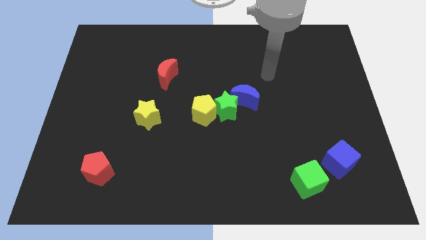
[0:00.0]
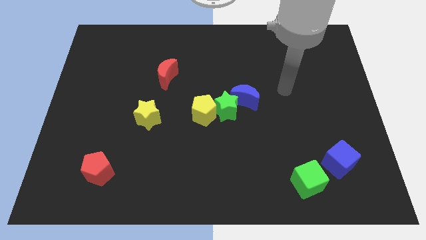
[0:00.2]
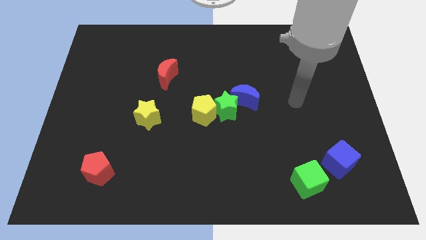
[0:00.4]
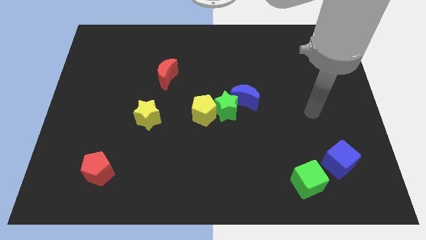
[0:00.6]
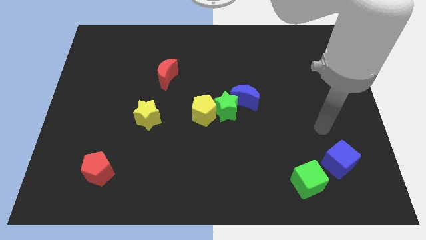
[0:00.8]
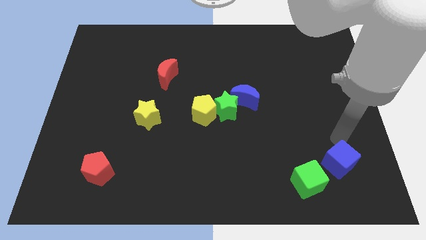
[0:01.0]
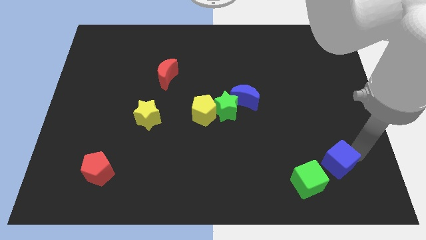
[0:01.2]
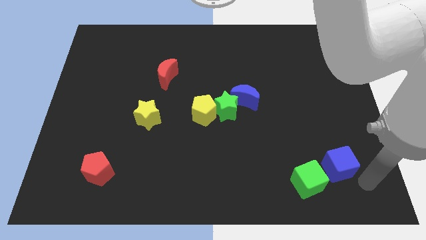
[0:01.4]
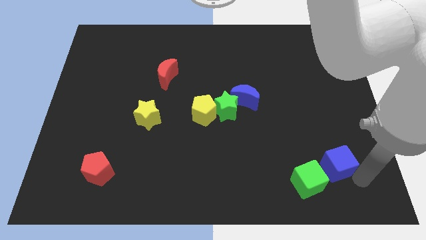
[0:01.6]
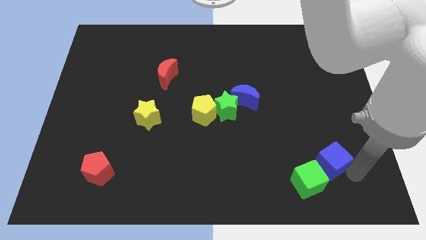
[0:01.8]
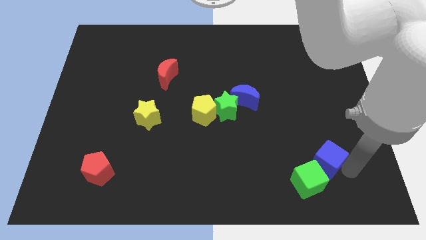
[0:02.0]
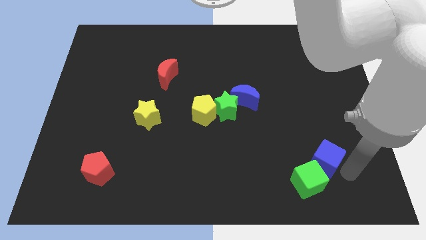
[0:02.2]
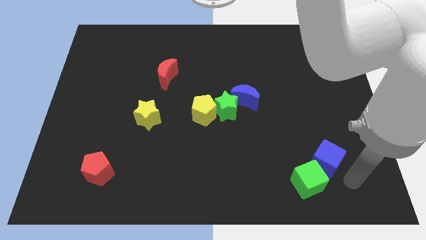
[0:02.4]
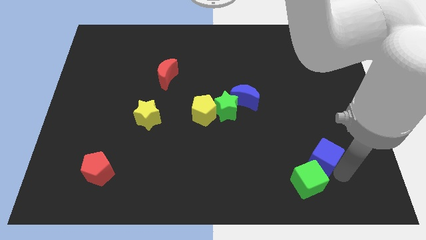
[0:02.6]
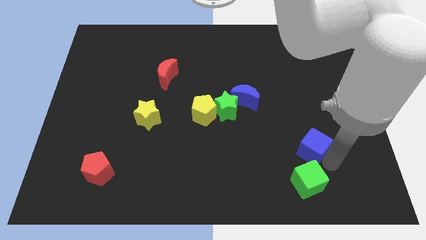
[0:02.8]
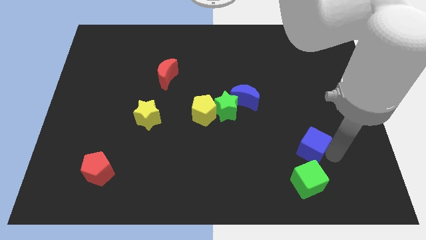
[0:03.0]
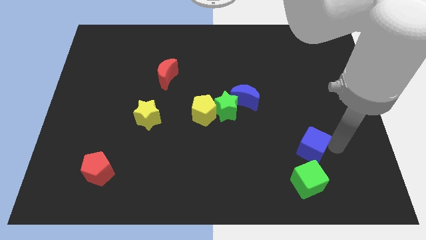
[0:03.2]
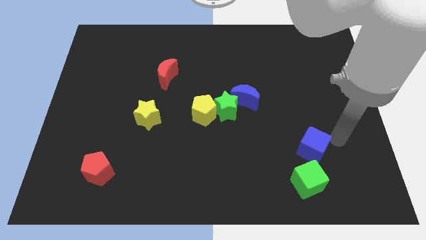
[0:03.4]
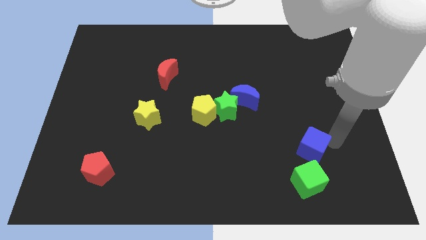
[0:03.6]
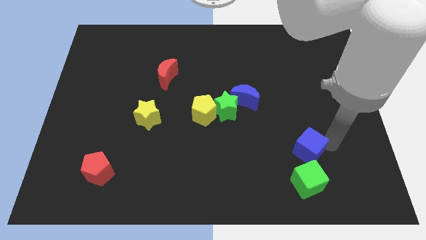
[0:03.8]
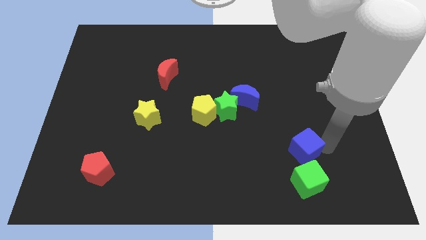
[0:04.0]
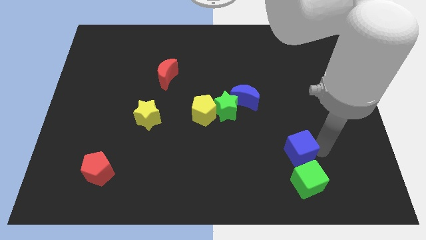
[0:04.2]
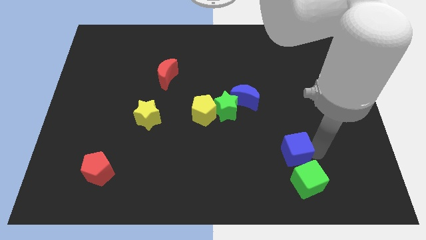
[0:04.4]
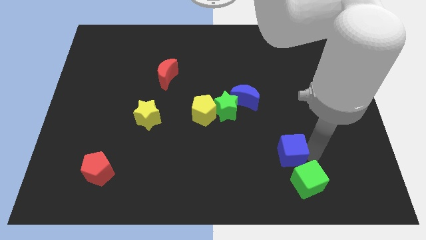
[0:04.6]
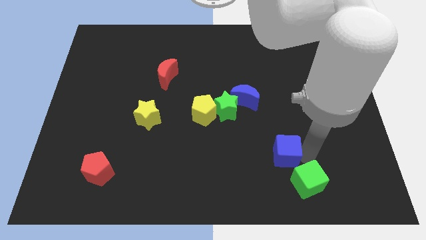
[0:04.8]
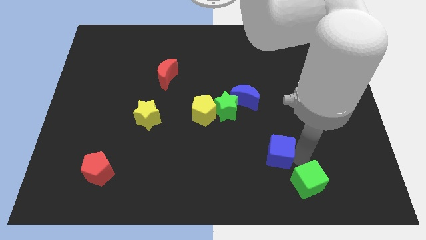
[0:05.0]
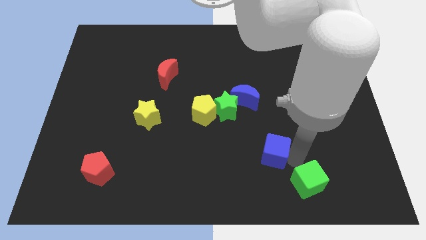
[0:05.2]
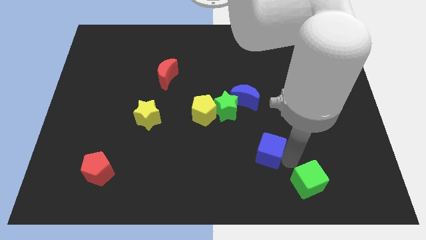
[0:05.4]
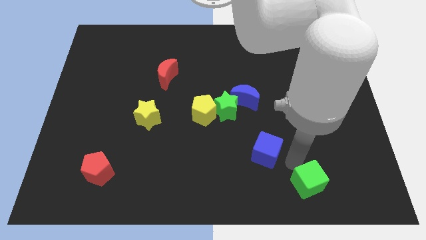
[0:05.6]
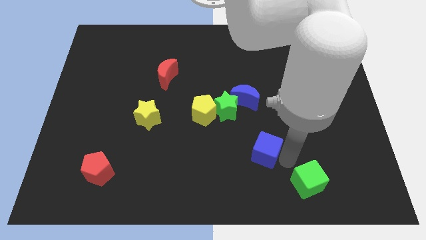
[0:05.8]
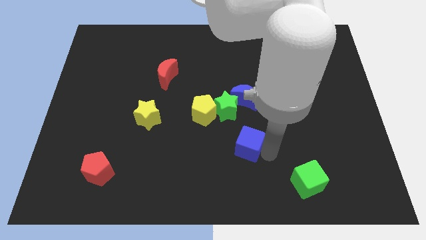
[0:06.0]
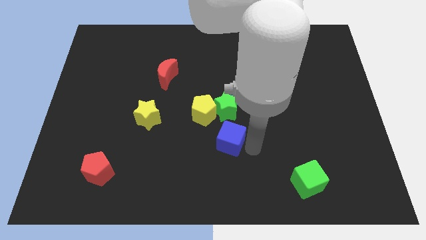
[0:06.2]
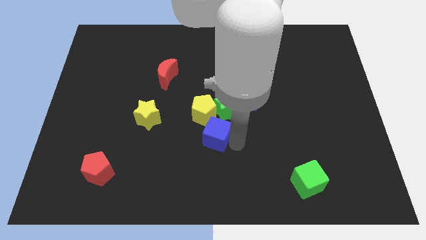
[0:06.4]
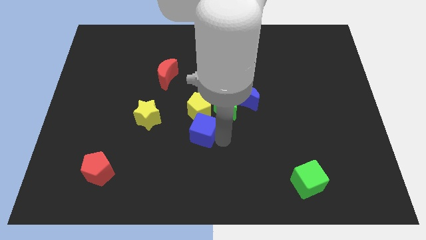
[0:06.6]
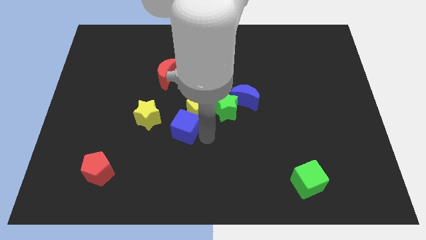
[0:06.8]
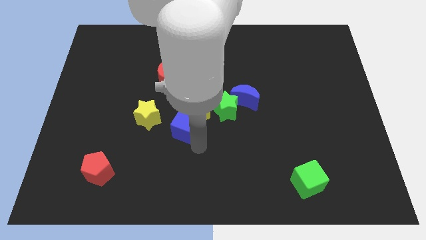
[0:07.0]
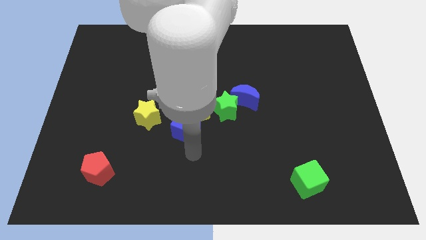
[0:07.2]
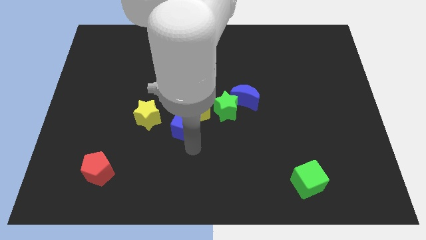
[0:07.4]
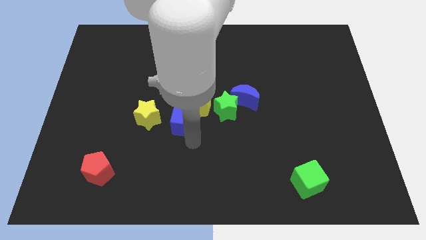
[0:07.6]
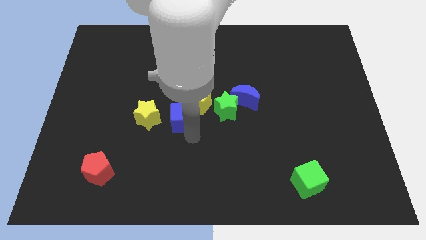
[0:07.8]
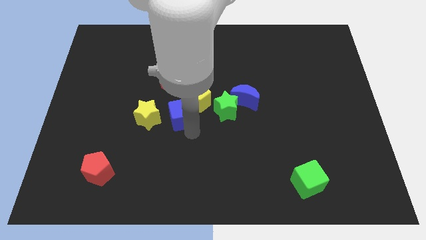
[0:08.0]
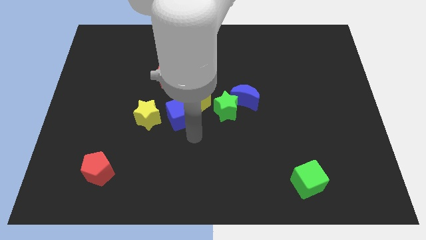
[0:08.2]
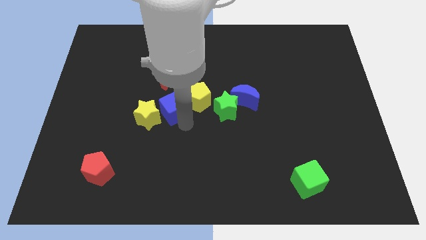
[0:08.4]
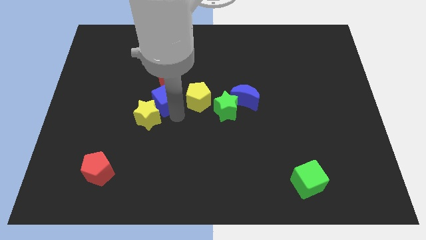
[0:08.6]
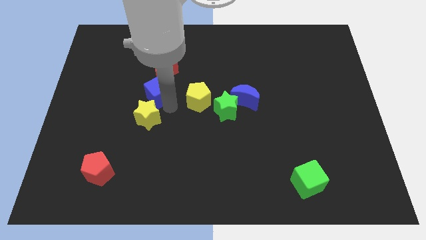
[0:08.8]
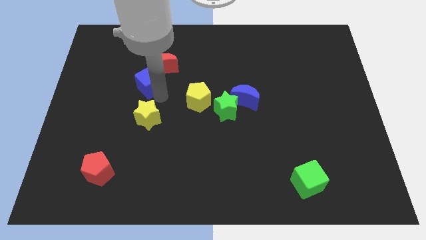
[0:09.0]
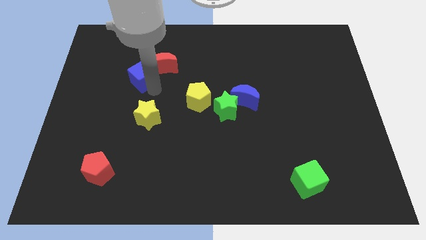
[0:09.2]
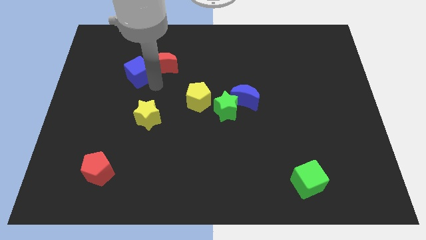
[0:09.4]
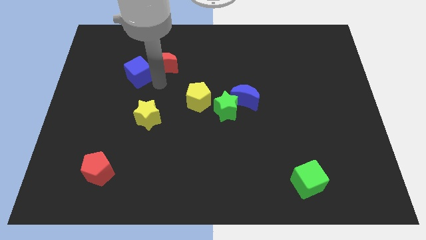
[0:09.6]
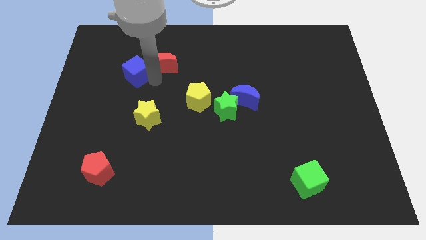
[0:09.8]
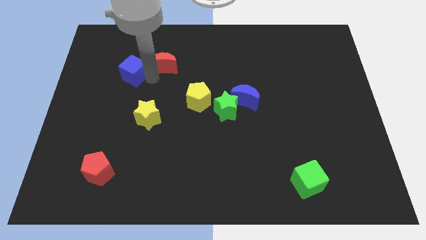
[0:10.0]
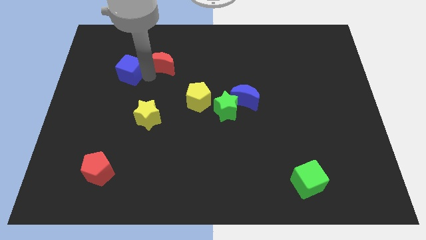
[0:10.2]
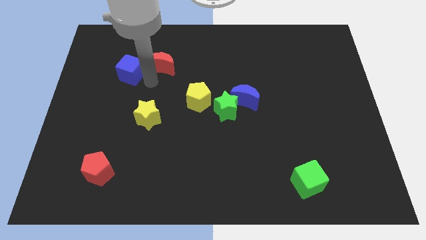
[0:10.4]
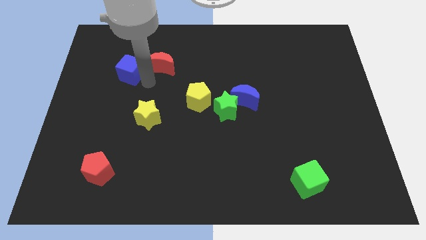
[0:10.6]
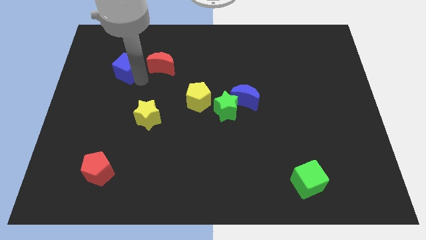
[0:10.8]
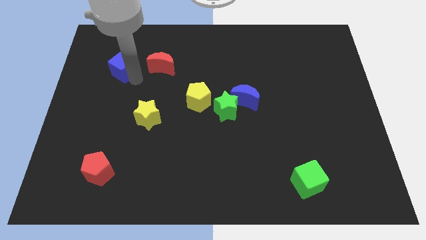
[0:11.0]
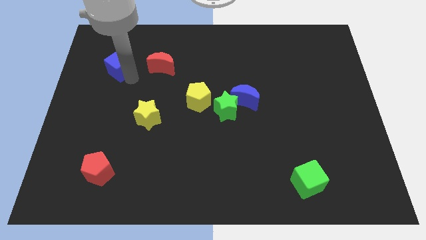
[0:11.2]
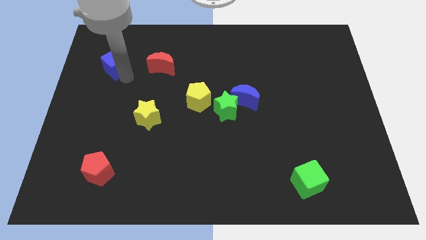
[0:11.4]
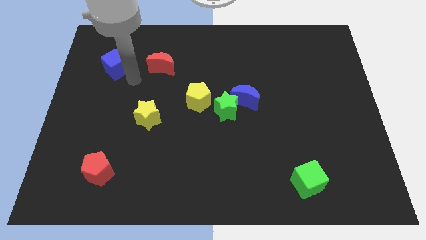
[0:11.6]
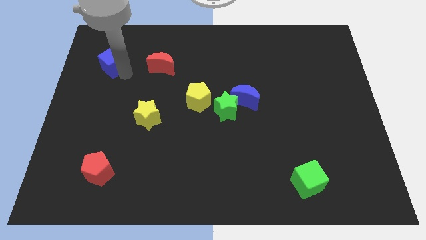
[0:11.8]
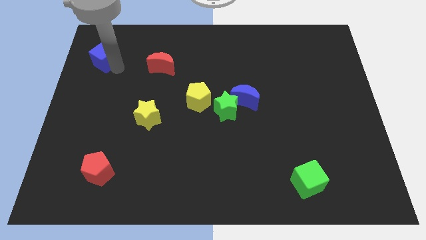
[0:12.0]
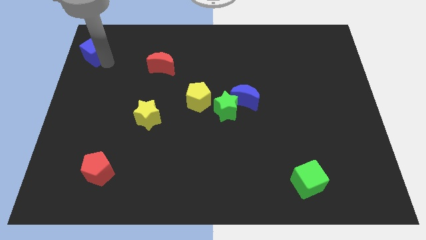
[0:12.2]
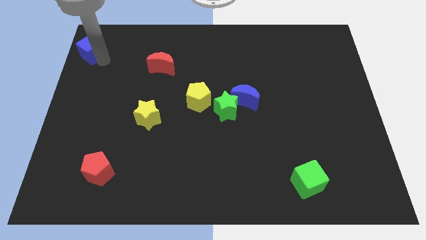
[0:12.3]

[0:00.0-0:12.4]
slide the blue cube to the upper left corner

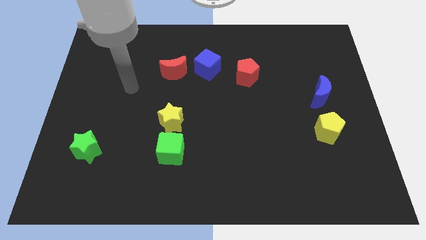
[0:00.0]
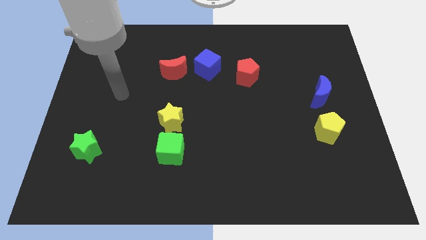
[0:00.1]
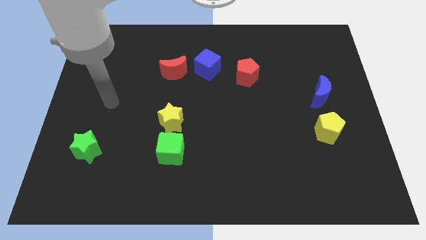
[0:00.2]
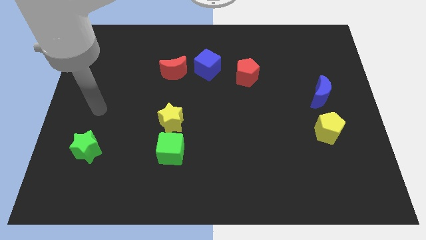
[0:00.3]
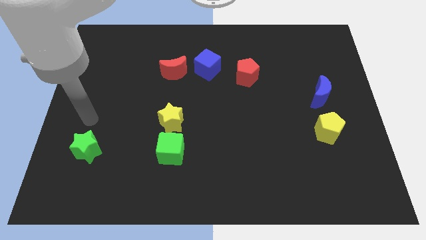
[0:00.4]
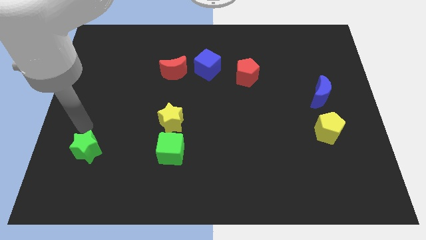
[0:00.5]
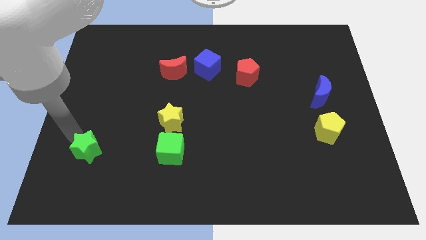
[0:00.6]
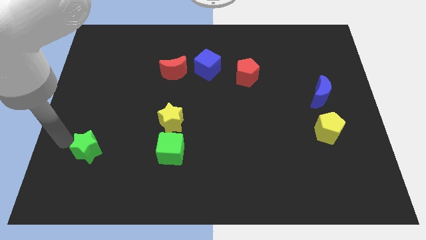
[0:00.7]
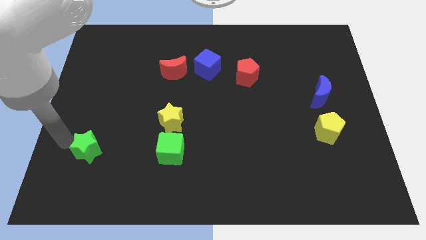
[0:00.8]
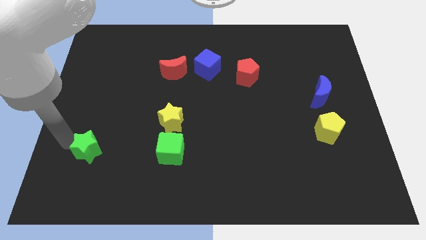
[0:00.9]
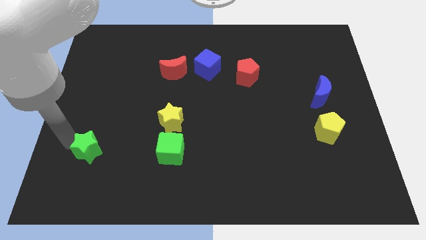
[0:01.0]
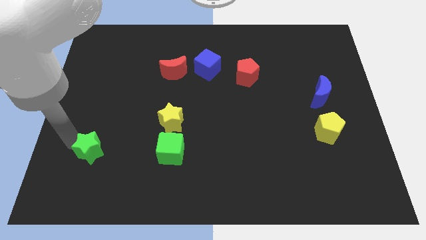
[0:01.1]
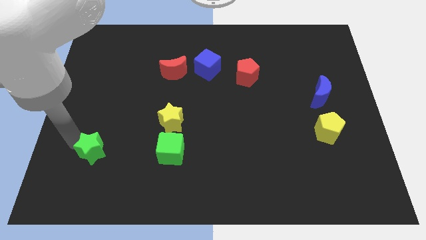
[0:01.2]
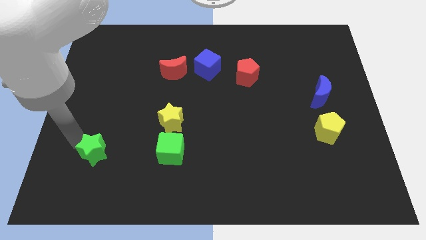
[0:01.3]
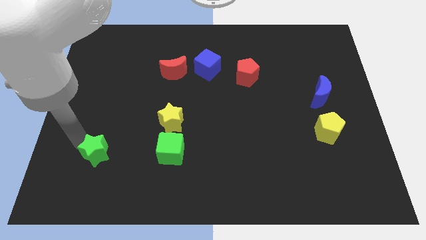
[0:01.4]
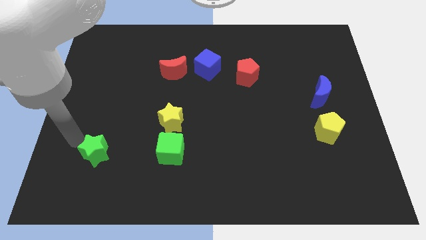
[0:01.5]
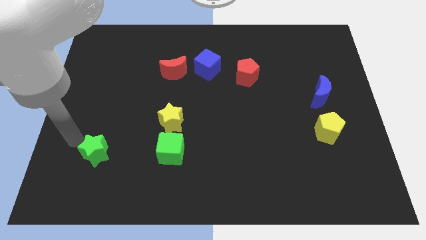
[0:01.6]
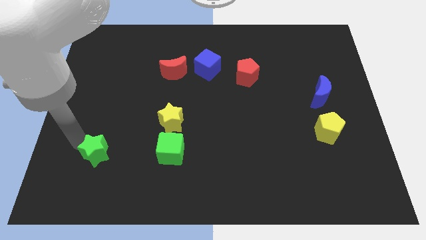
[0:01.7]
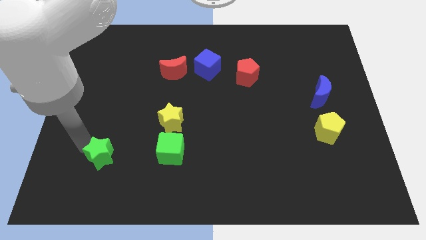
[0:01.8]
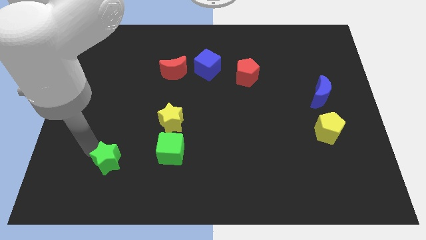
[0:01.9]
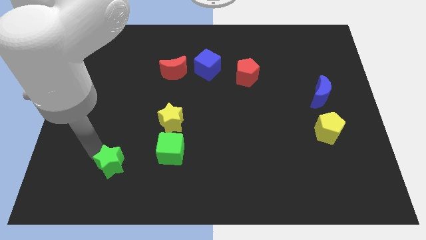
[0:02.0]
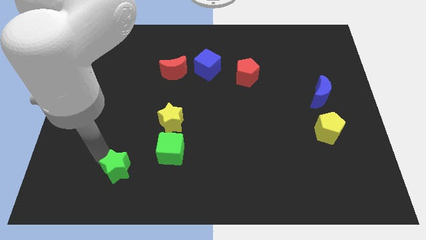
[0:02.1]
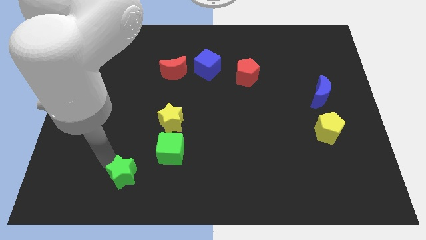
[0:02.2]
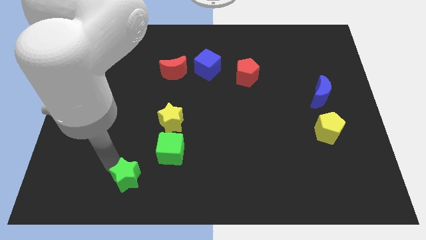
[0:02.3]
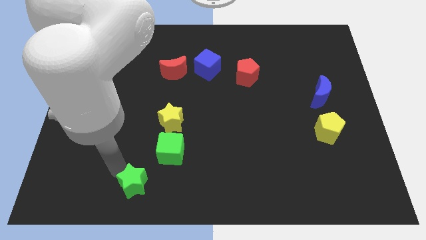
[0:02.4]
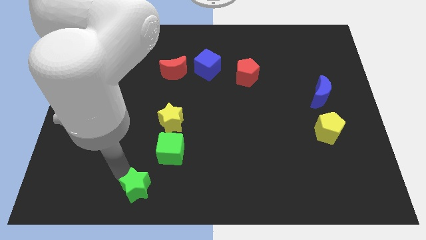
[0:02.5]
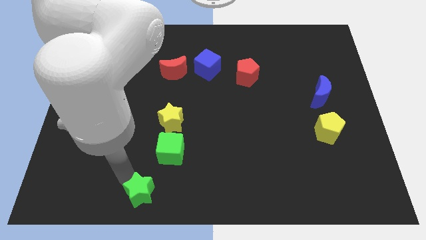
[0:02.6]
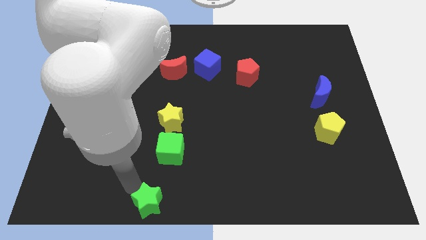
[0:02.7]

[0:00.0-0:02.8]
move the green star to the bottom
